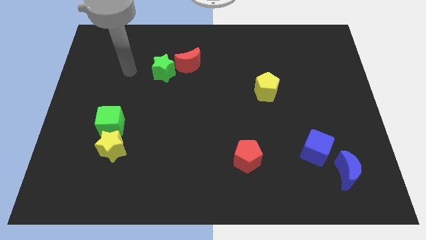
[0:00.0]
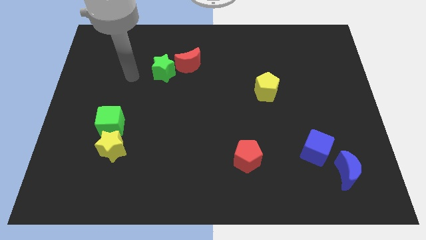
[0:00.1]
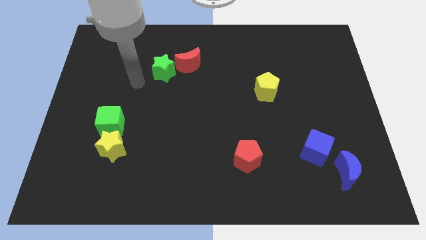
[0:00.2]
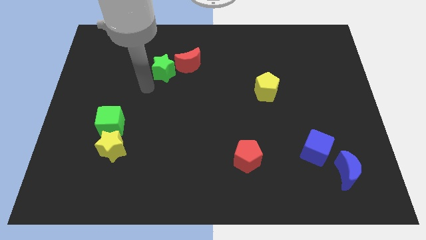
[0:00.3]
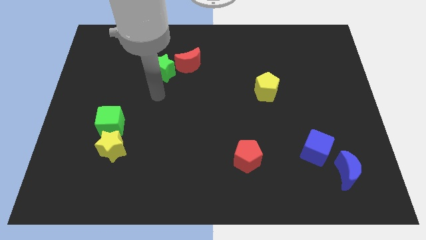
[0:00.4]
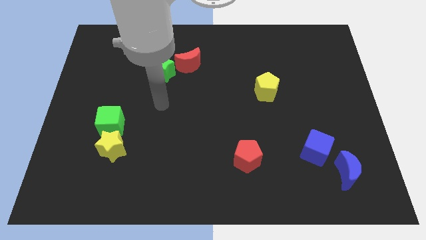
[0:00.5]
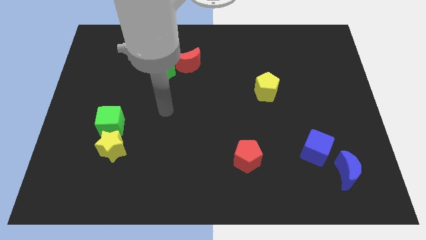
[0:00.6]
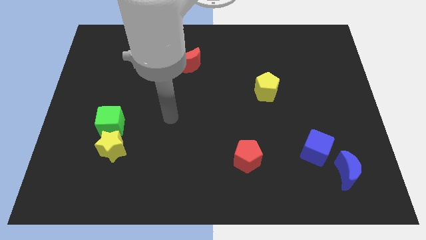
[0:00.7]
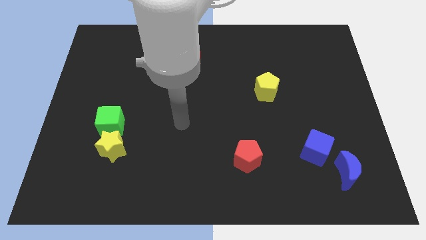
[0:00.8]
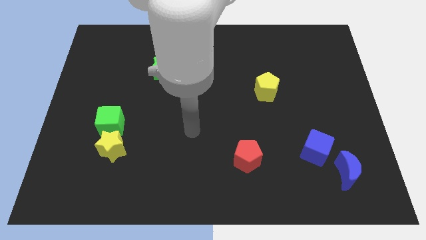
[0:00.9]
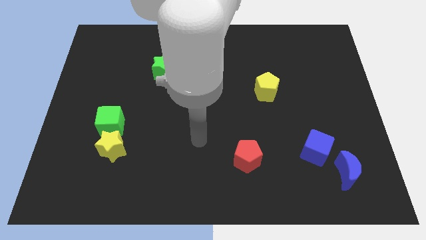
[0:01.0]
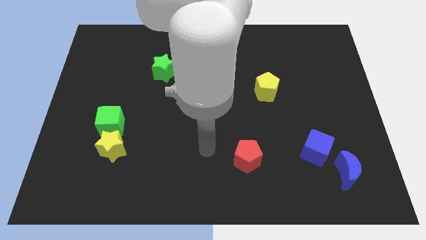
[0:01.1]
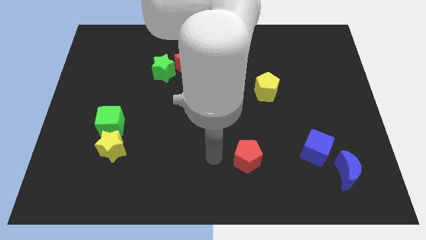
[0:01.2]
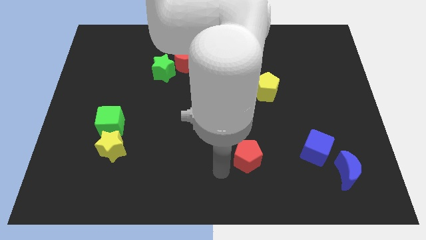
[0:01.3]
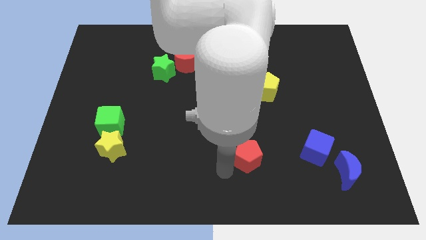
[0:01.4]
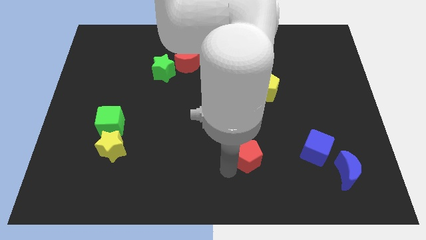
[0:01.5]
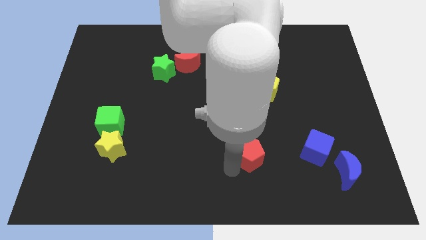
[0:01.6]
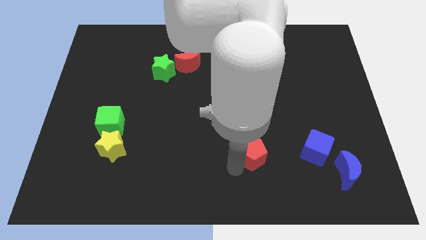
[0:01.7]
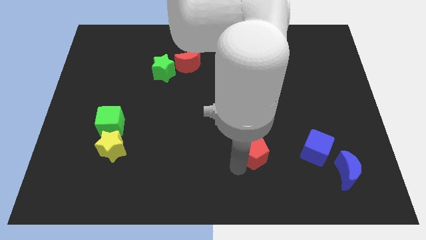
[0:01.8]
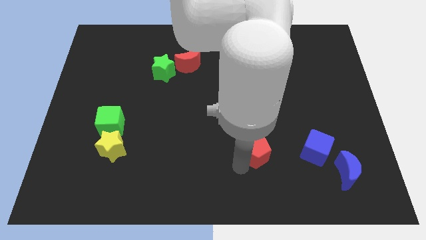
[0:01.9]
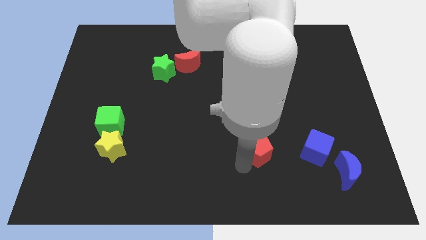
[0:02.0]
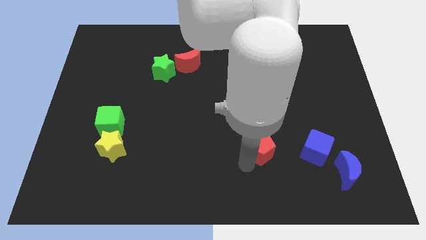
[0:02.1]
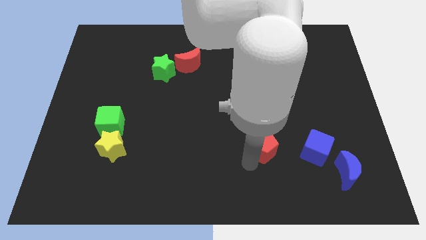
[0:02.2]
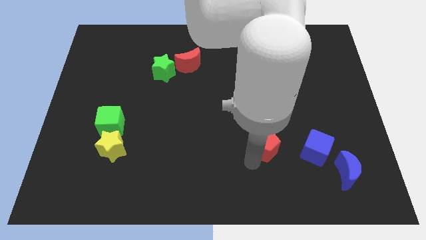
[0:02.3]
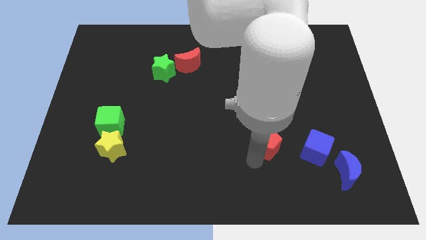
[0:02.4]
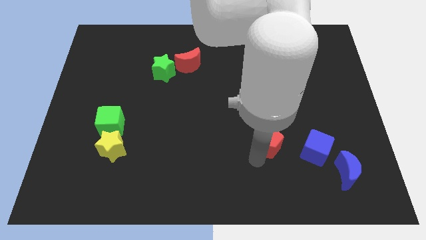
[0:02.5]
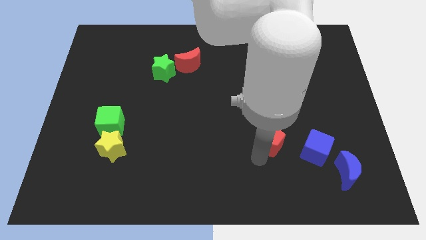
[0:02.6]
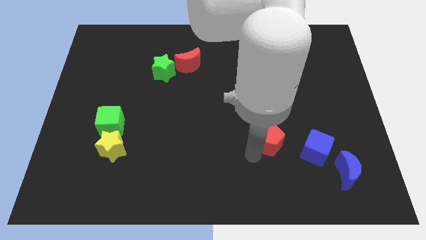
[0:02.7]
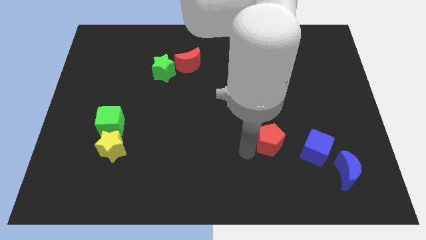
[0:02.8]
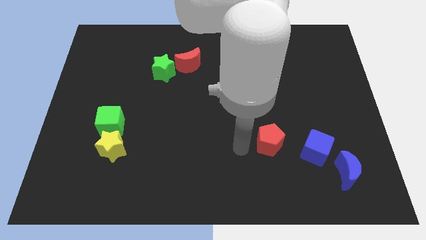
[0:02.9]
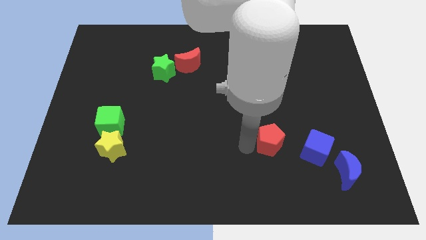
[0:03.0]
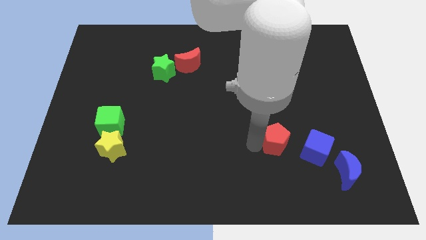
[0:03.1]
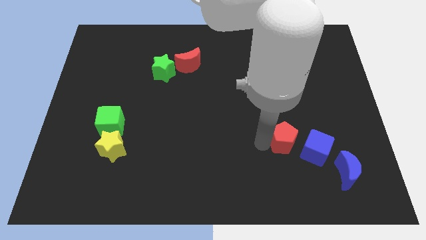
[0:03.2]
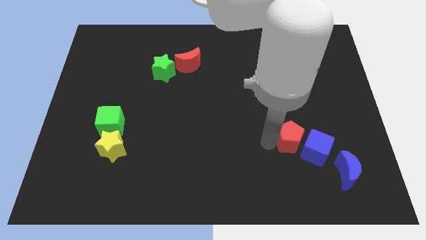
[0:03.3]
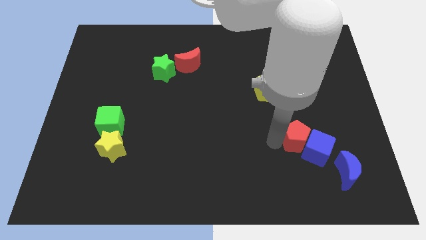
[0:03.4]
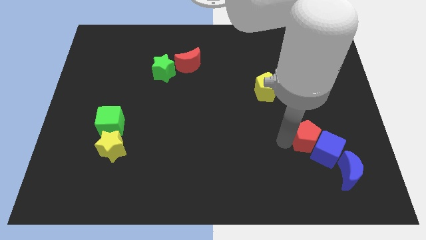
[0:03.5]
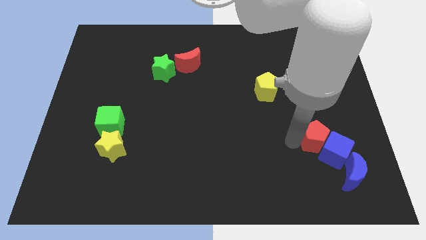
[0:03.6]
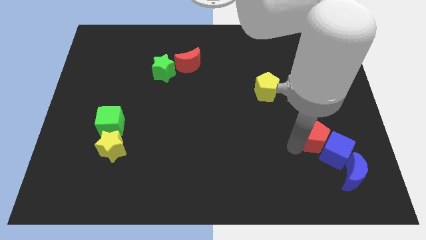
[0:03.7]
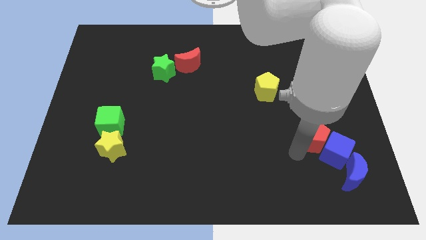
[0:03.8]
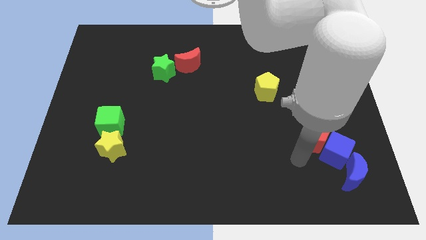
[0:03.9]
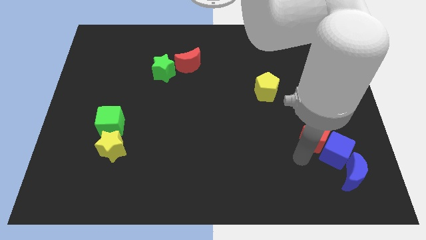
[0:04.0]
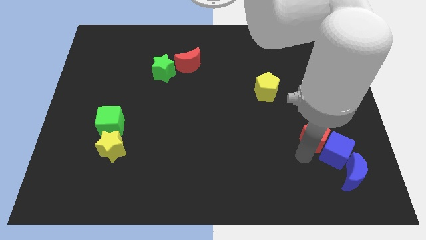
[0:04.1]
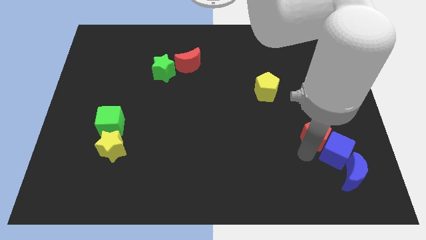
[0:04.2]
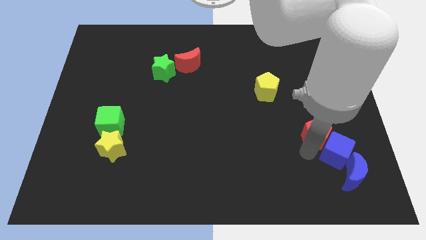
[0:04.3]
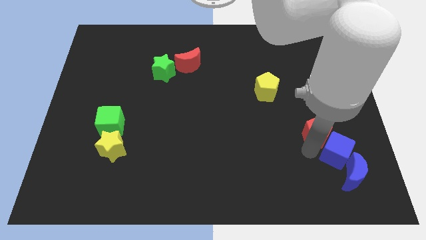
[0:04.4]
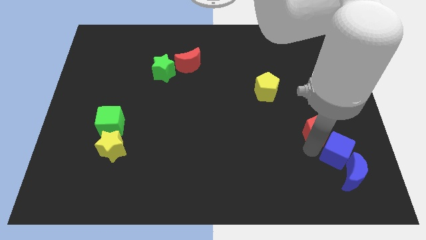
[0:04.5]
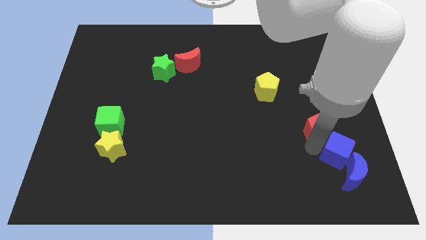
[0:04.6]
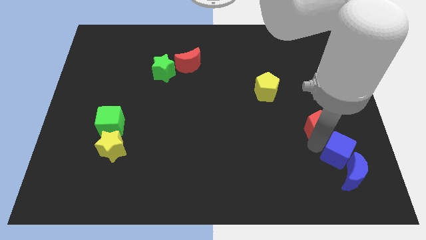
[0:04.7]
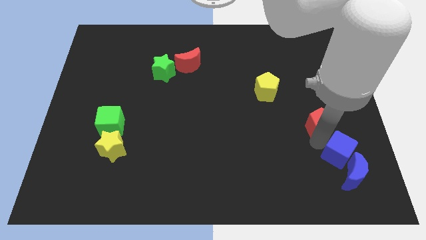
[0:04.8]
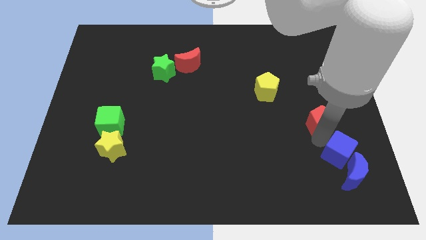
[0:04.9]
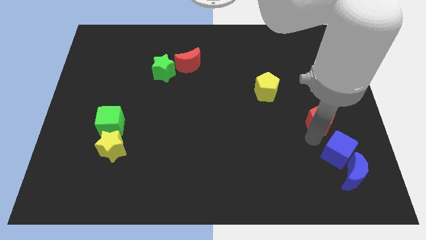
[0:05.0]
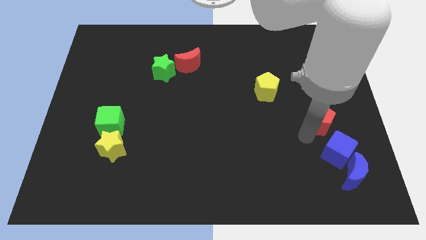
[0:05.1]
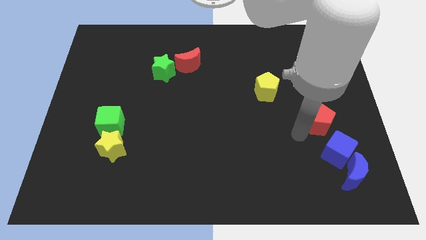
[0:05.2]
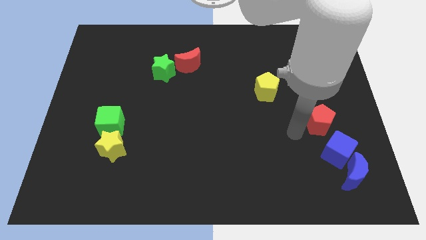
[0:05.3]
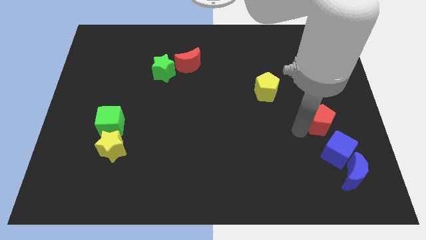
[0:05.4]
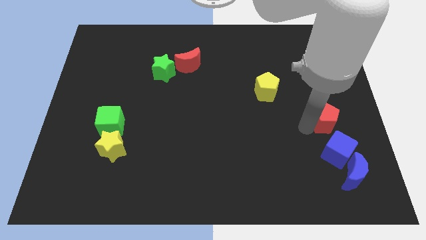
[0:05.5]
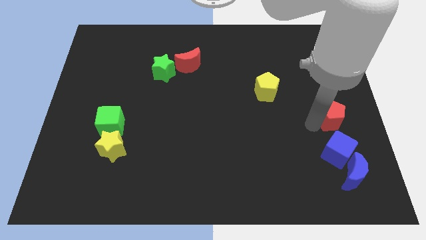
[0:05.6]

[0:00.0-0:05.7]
push the red pentagon to the center right

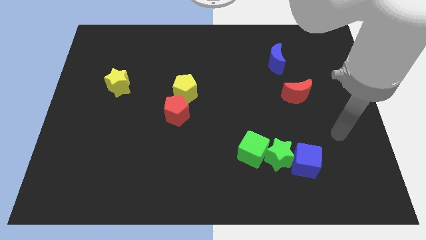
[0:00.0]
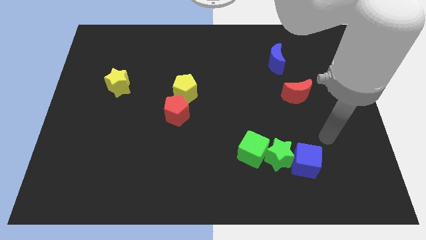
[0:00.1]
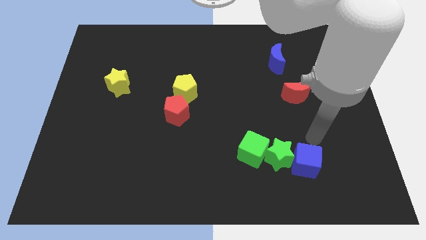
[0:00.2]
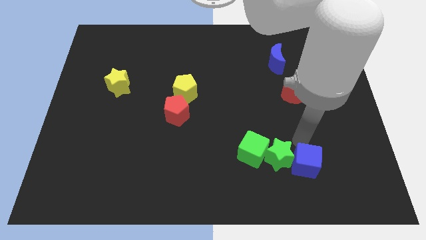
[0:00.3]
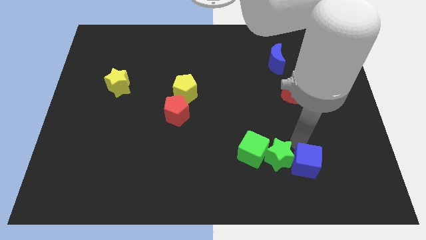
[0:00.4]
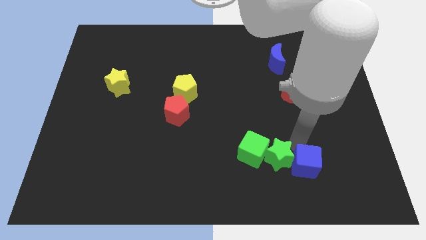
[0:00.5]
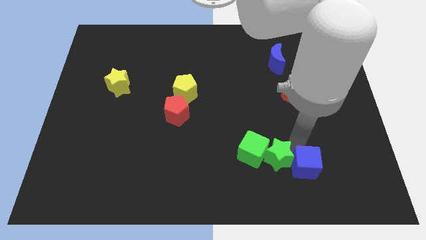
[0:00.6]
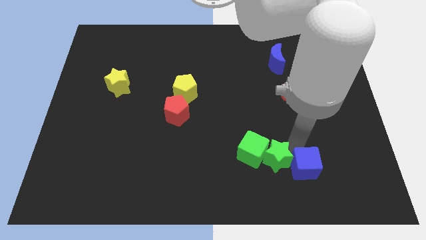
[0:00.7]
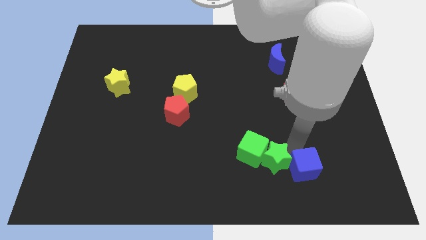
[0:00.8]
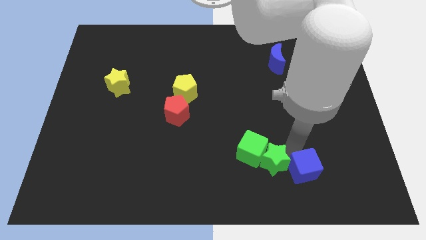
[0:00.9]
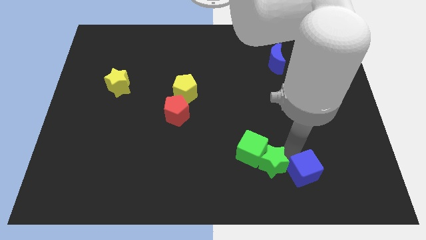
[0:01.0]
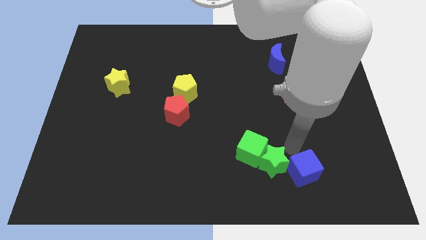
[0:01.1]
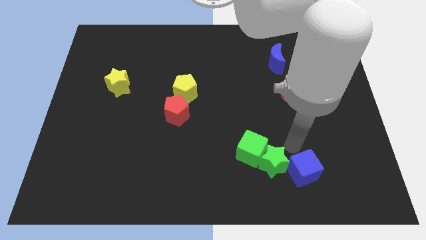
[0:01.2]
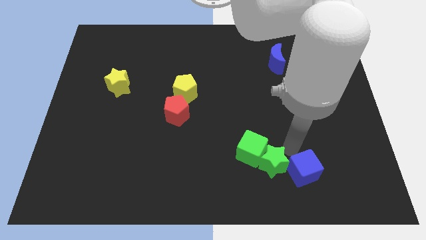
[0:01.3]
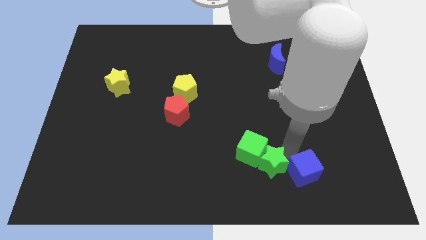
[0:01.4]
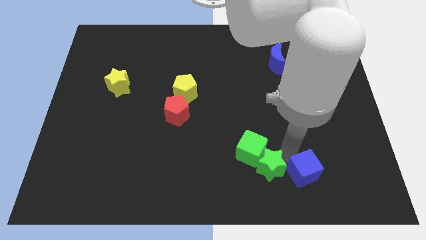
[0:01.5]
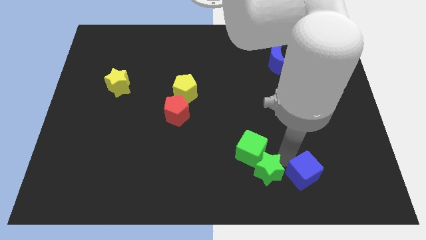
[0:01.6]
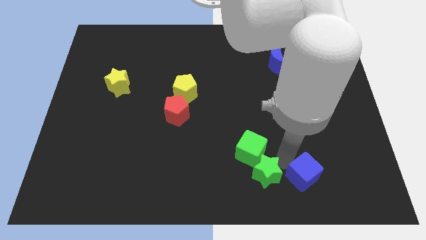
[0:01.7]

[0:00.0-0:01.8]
push the green star to the bottom side
